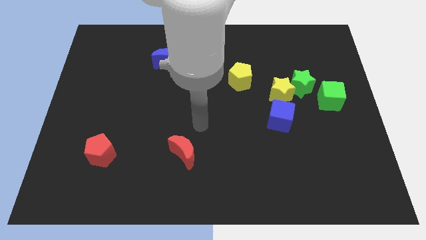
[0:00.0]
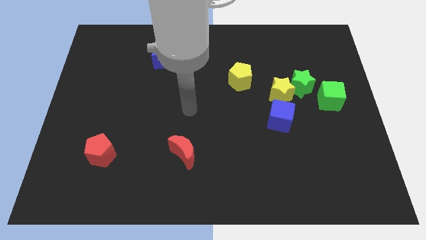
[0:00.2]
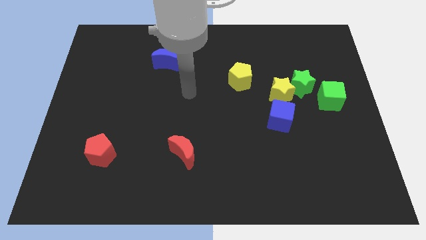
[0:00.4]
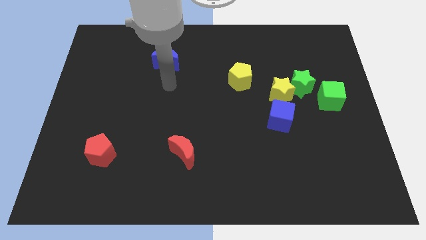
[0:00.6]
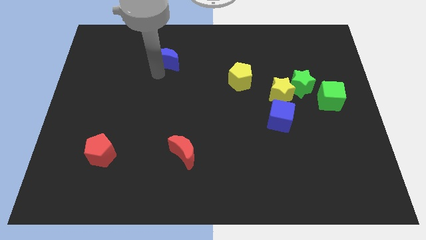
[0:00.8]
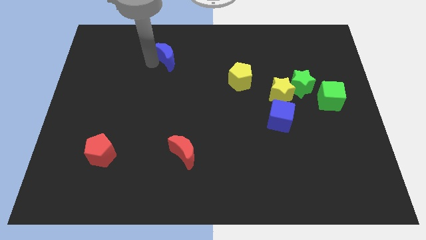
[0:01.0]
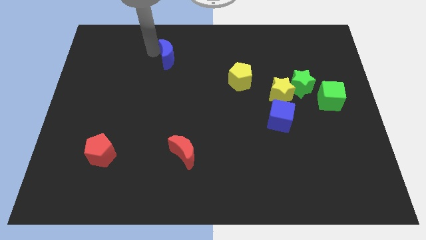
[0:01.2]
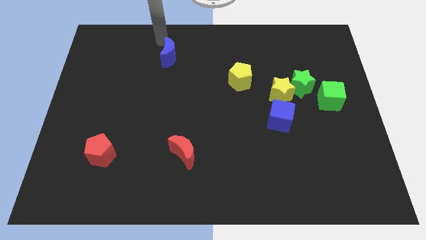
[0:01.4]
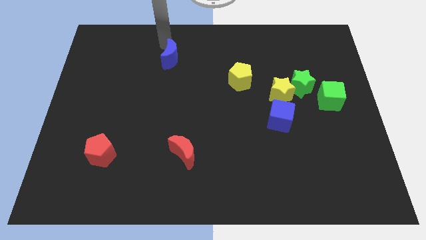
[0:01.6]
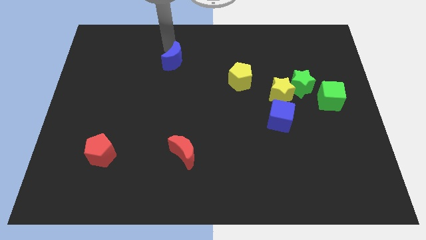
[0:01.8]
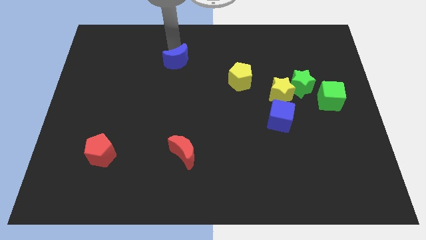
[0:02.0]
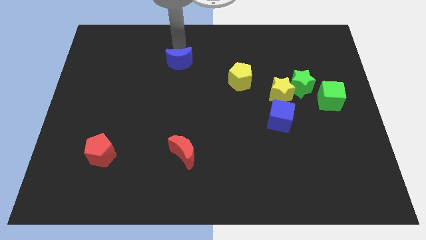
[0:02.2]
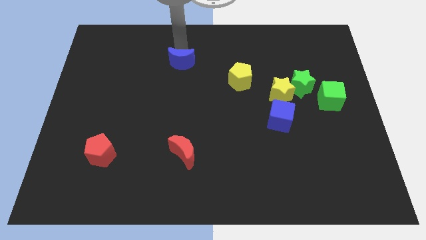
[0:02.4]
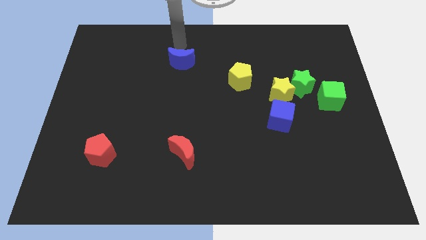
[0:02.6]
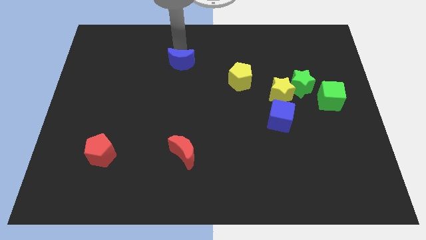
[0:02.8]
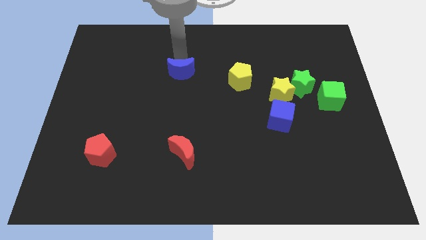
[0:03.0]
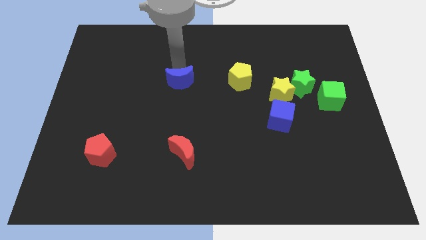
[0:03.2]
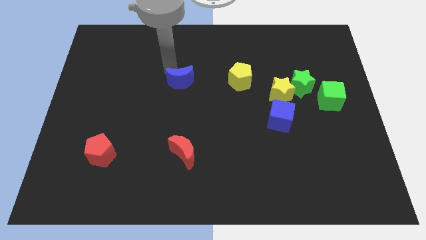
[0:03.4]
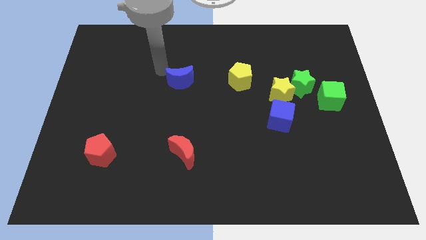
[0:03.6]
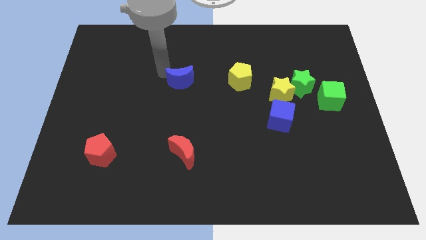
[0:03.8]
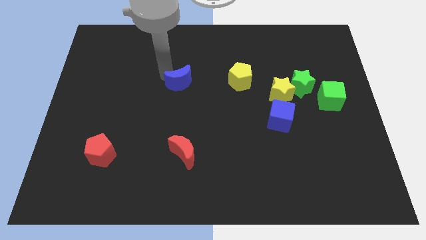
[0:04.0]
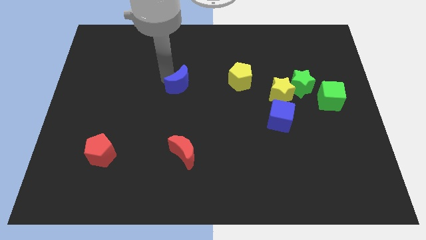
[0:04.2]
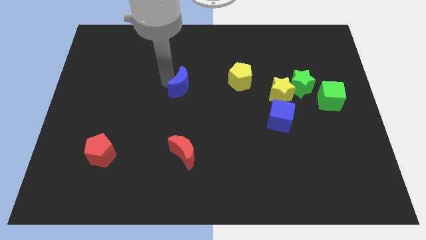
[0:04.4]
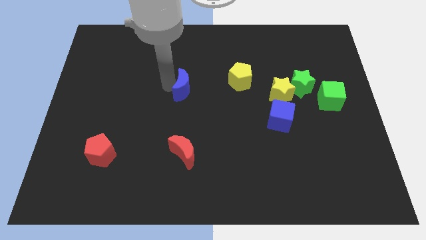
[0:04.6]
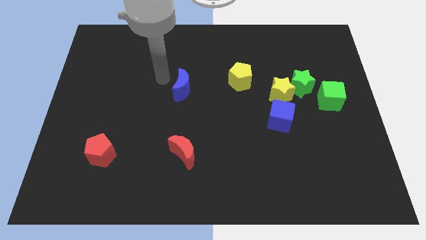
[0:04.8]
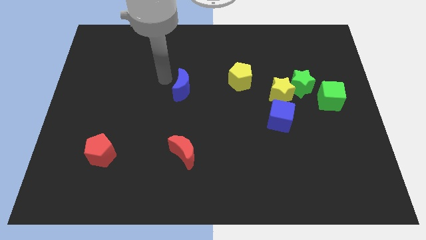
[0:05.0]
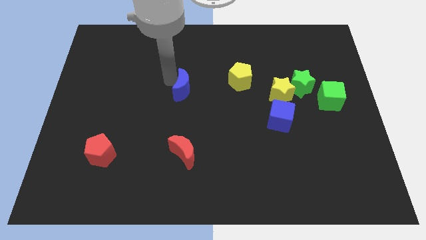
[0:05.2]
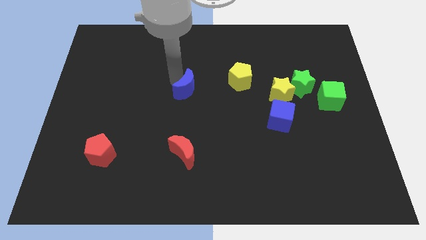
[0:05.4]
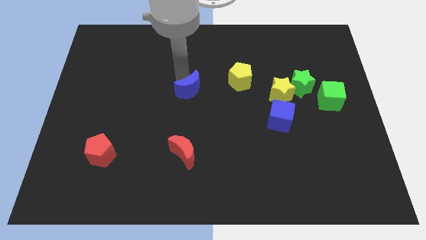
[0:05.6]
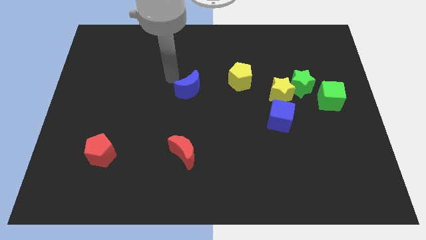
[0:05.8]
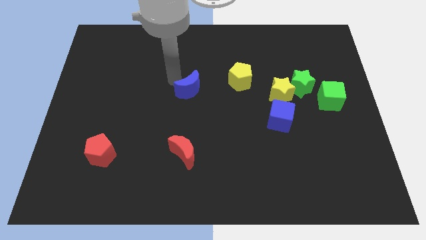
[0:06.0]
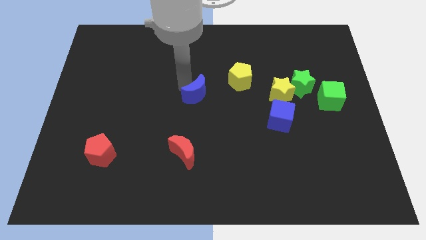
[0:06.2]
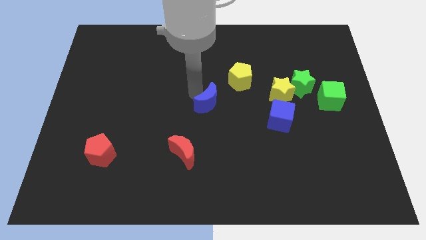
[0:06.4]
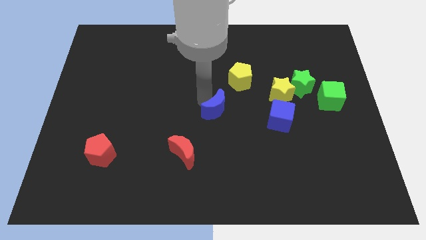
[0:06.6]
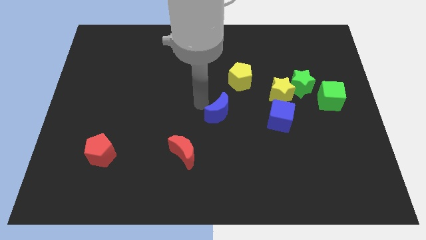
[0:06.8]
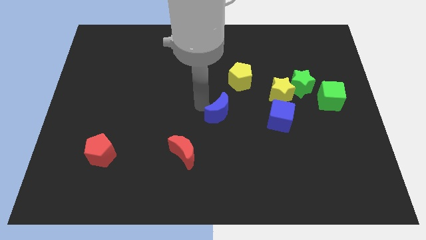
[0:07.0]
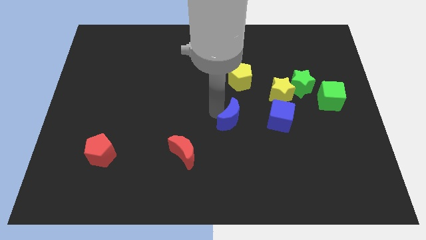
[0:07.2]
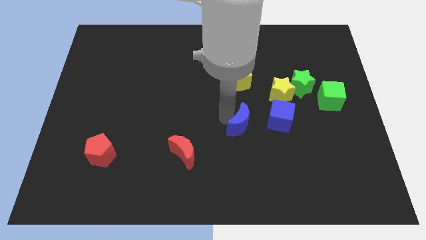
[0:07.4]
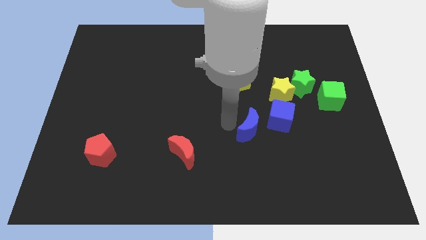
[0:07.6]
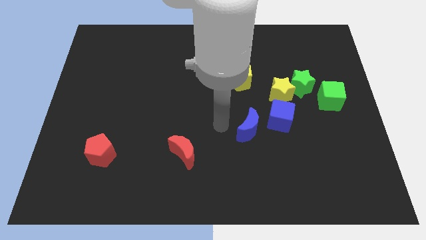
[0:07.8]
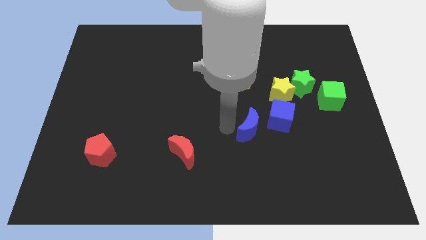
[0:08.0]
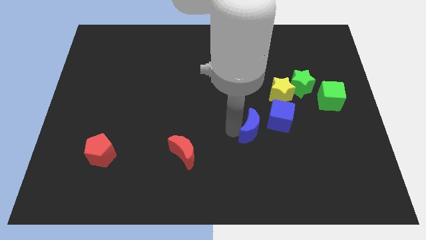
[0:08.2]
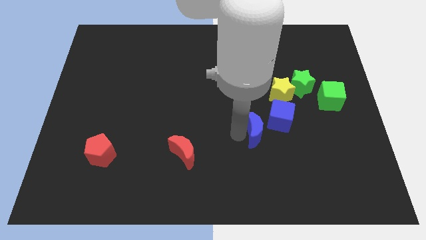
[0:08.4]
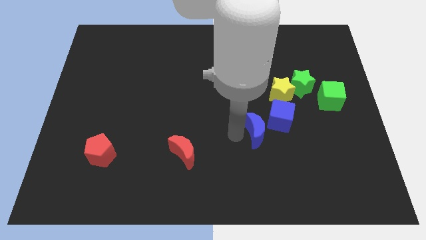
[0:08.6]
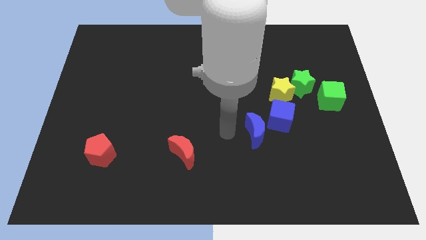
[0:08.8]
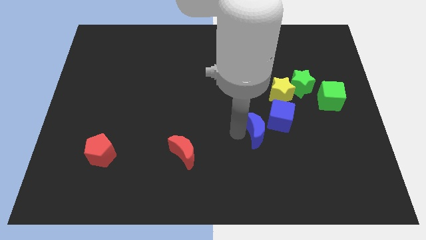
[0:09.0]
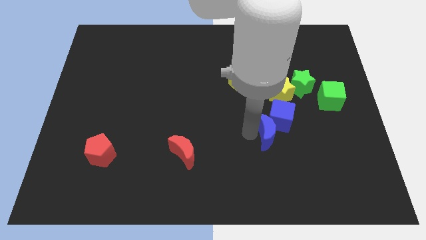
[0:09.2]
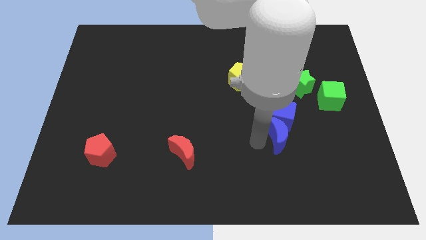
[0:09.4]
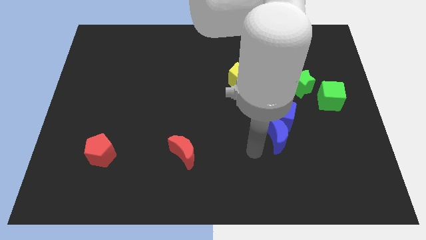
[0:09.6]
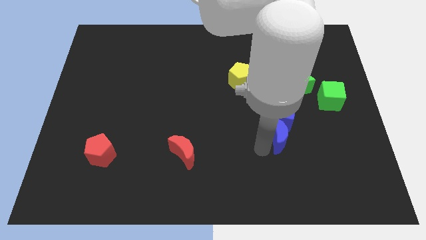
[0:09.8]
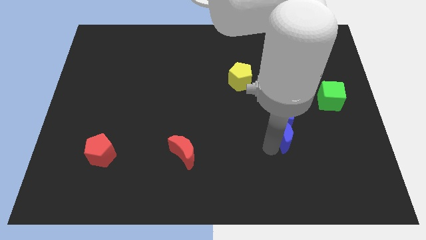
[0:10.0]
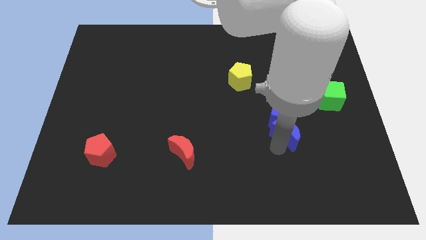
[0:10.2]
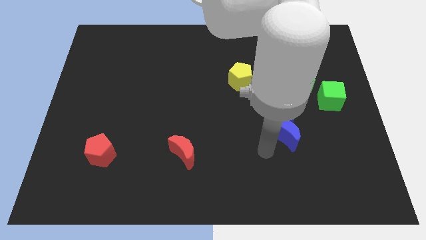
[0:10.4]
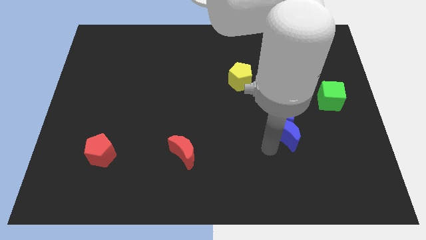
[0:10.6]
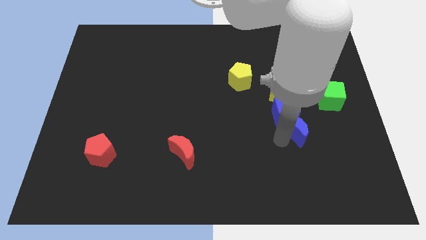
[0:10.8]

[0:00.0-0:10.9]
push the blue moon to the bottom of the green star

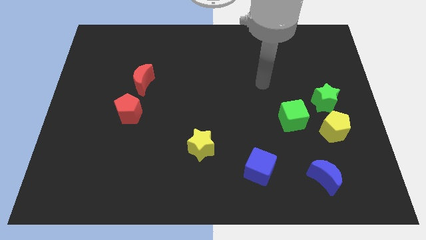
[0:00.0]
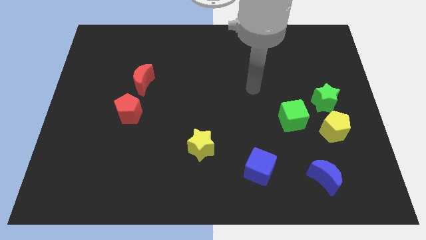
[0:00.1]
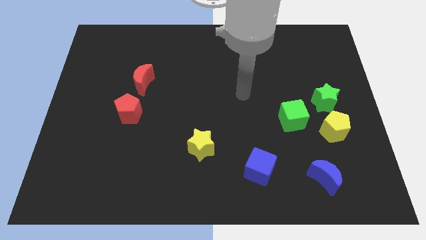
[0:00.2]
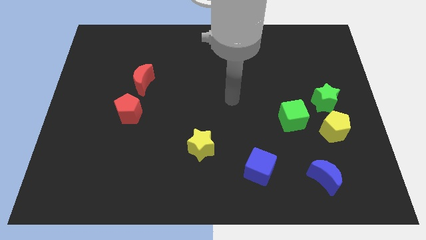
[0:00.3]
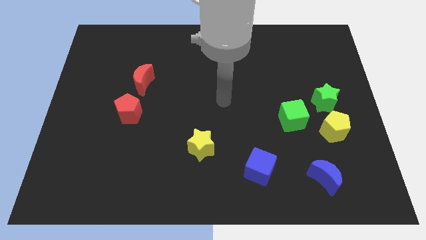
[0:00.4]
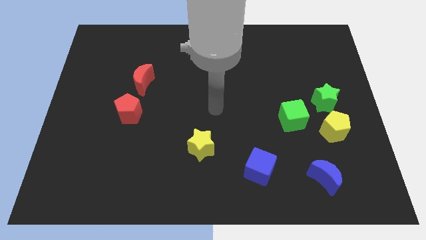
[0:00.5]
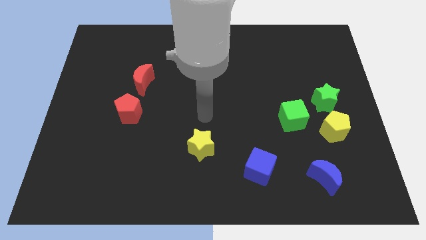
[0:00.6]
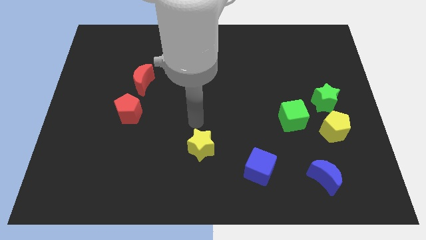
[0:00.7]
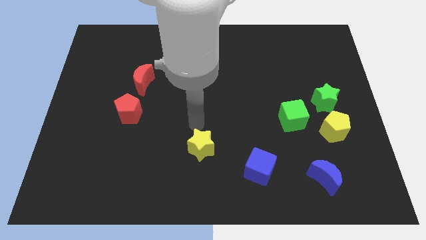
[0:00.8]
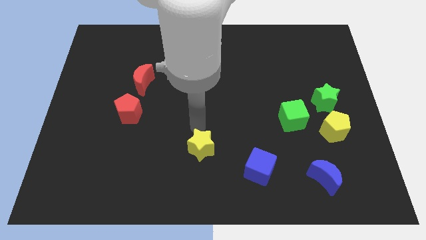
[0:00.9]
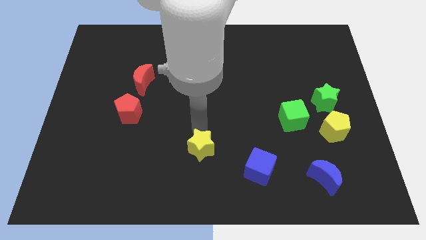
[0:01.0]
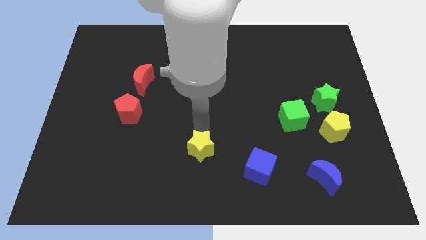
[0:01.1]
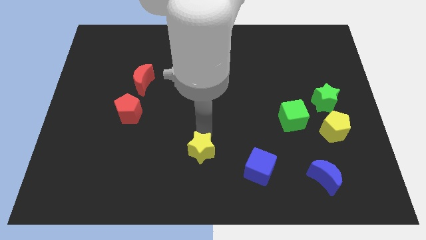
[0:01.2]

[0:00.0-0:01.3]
put the yellow star to the left side of the blue cube
